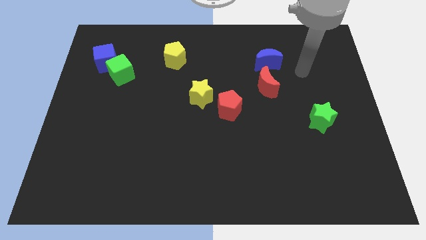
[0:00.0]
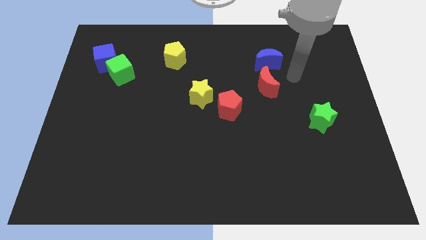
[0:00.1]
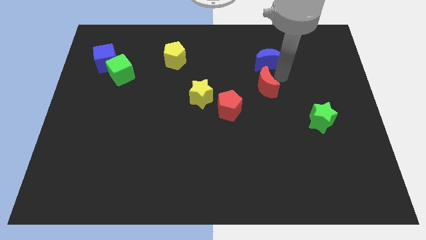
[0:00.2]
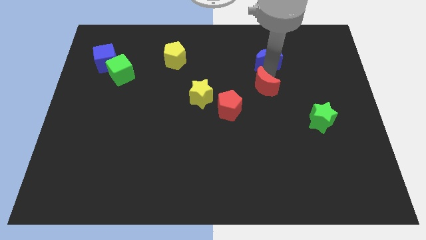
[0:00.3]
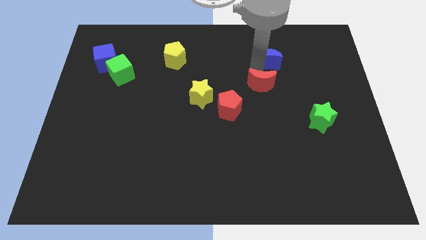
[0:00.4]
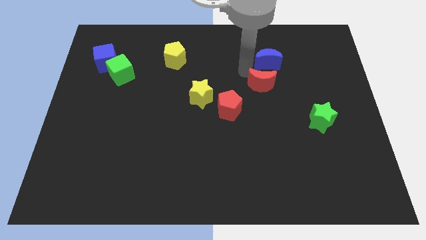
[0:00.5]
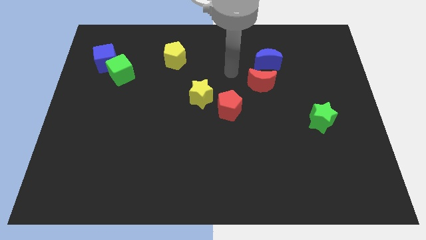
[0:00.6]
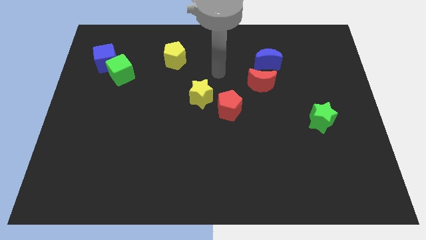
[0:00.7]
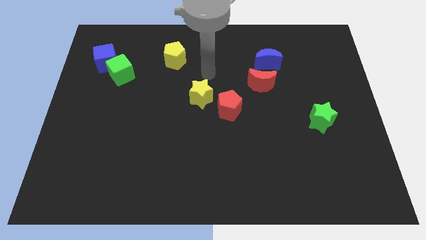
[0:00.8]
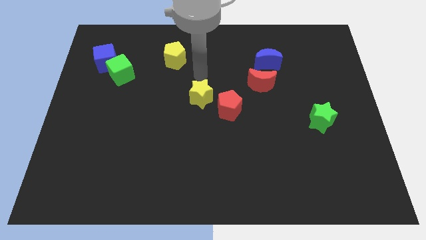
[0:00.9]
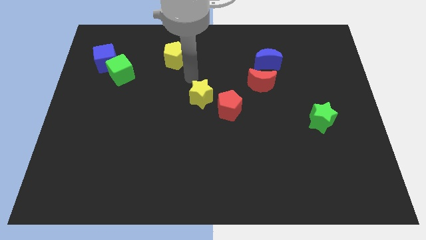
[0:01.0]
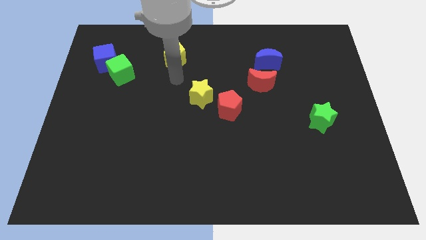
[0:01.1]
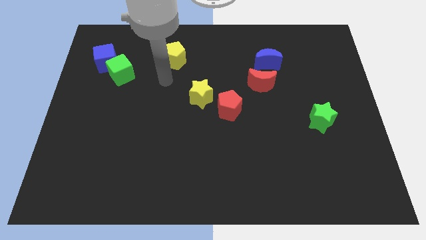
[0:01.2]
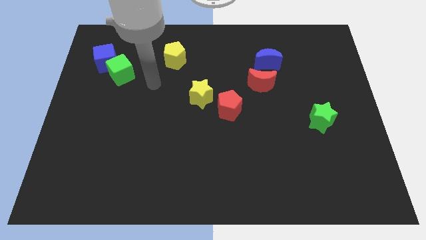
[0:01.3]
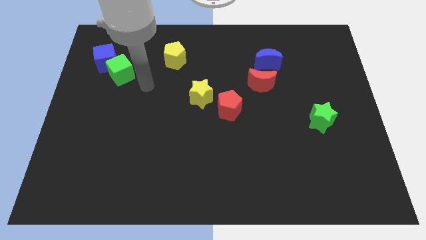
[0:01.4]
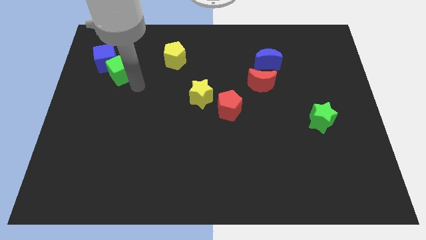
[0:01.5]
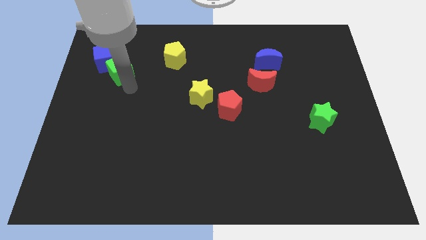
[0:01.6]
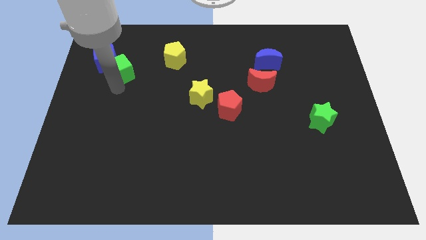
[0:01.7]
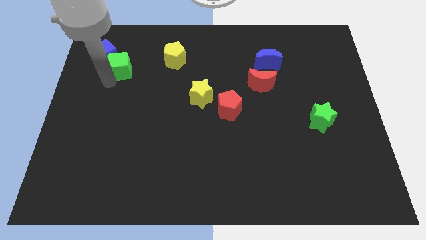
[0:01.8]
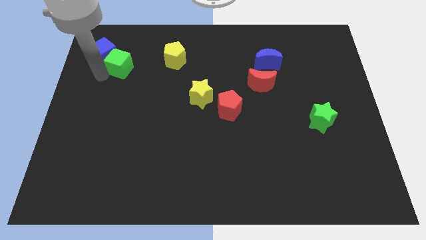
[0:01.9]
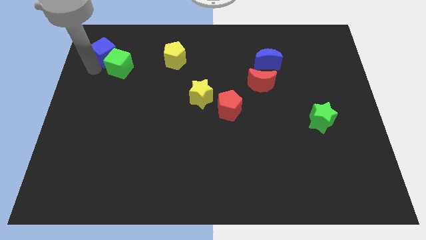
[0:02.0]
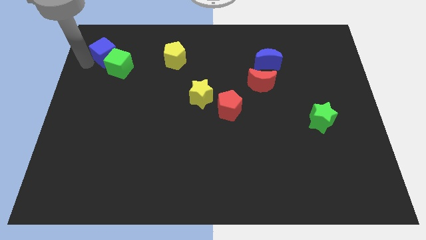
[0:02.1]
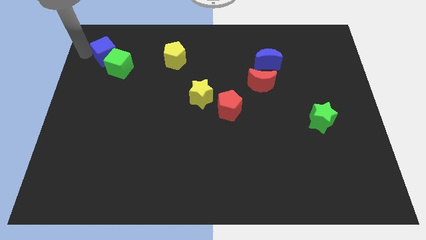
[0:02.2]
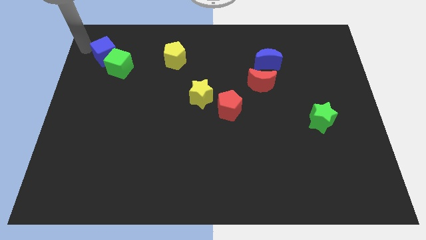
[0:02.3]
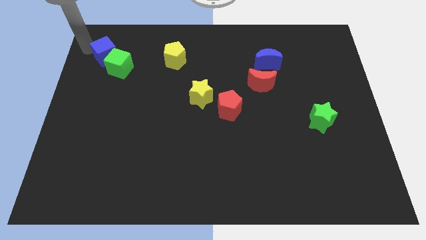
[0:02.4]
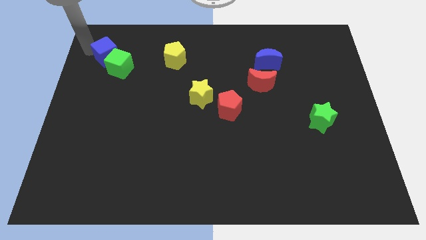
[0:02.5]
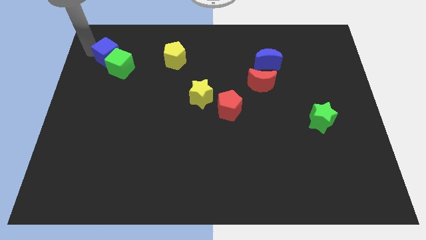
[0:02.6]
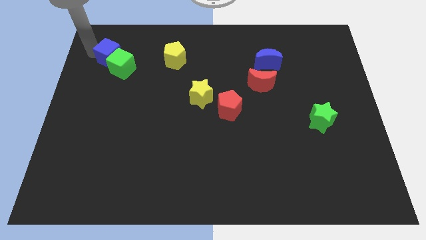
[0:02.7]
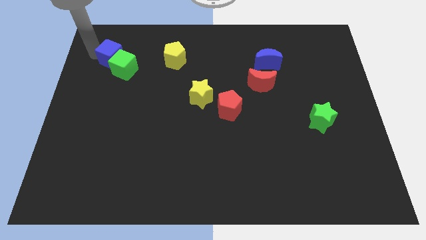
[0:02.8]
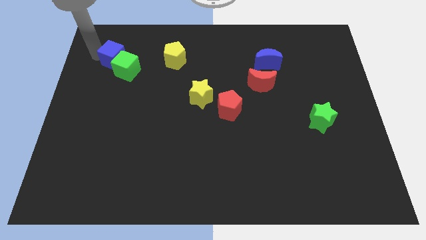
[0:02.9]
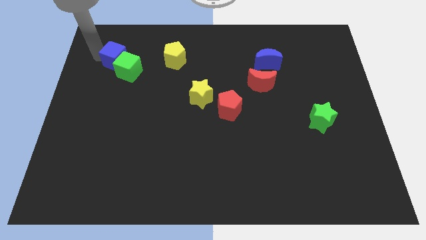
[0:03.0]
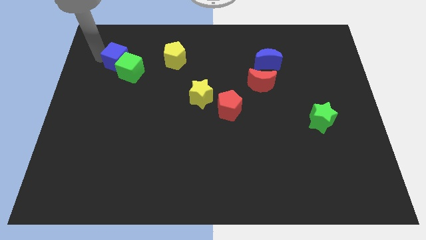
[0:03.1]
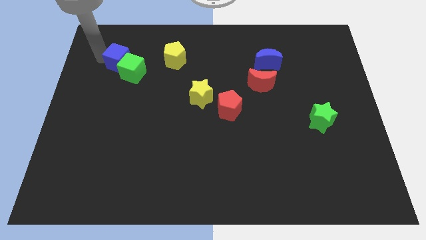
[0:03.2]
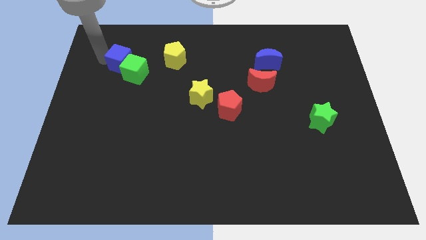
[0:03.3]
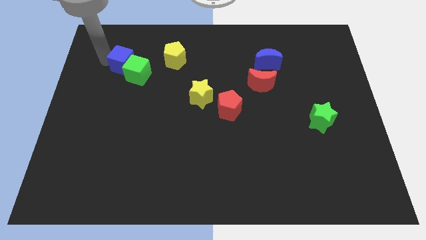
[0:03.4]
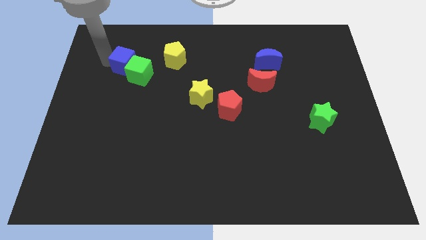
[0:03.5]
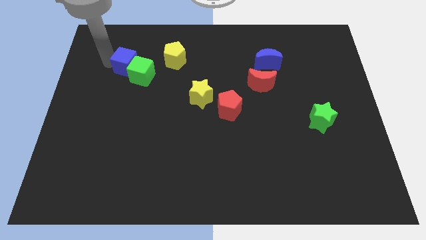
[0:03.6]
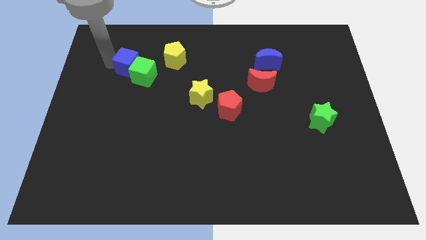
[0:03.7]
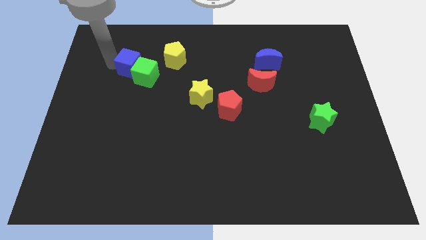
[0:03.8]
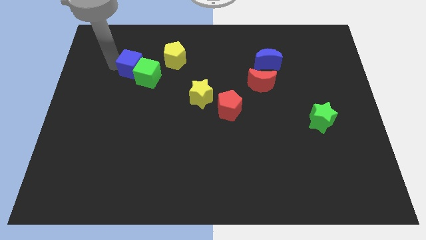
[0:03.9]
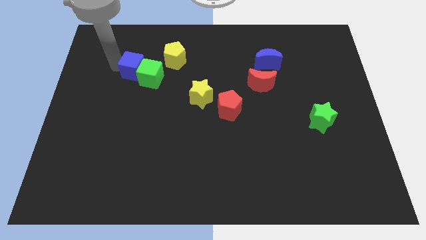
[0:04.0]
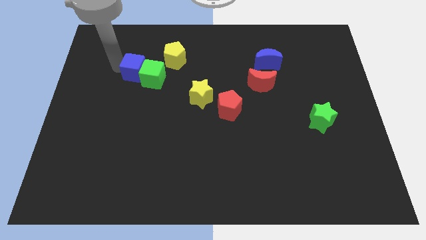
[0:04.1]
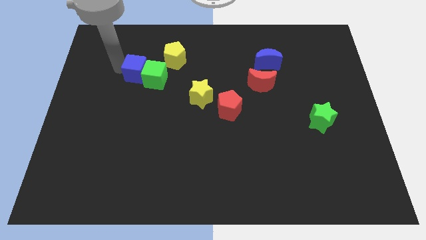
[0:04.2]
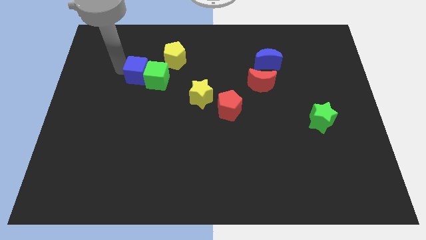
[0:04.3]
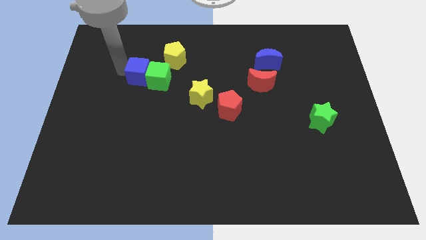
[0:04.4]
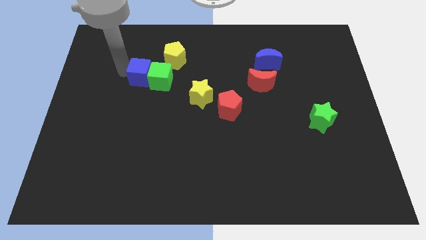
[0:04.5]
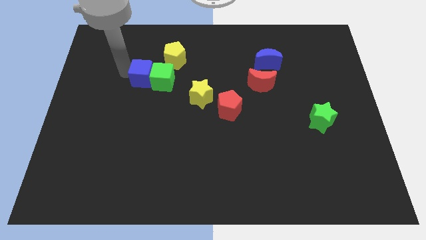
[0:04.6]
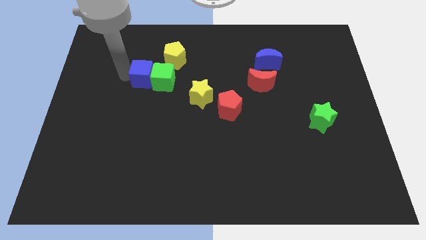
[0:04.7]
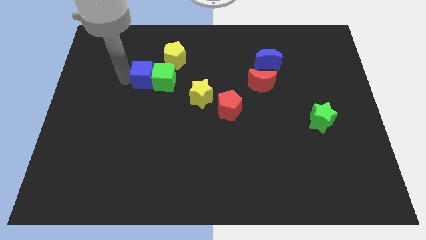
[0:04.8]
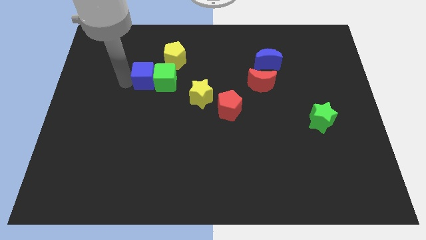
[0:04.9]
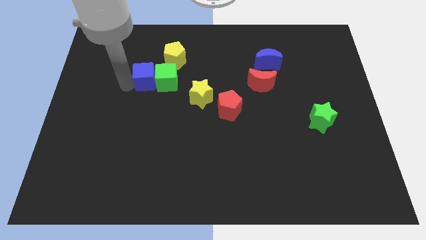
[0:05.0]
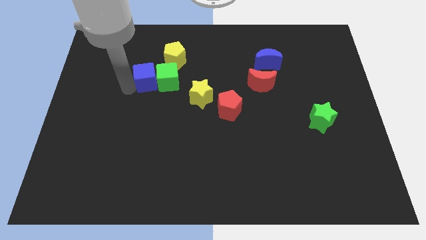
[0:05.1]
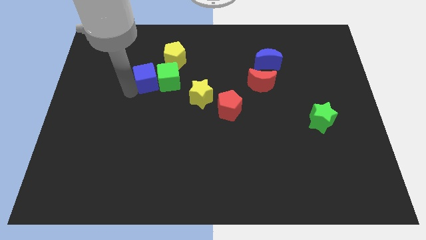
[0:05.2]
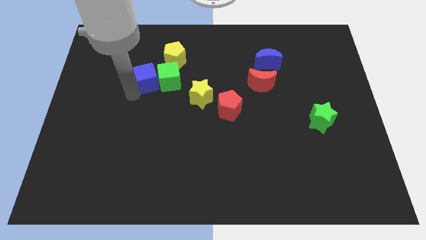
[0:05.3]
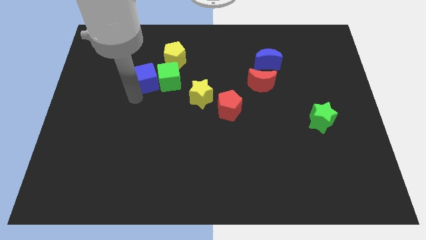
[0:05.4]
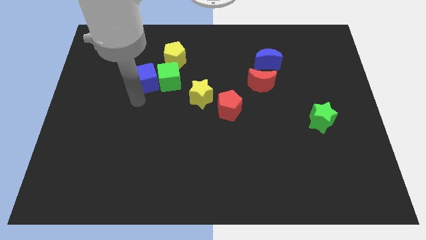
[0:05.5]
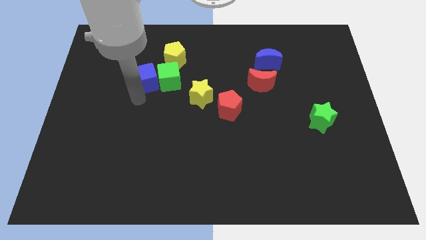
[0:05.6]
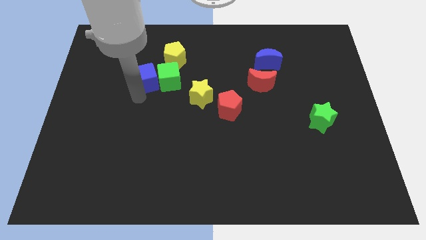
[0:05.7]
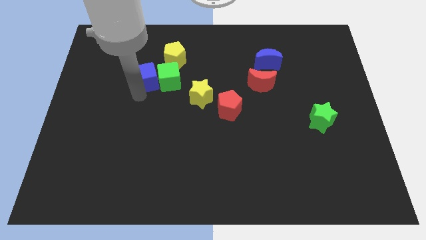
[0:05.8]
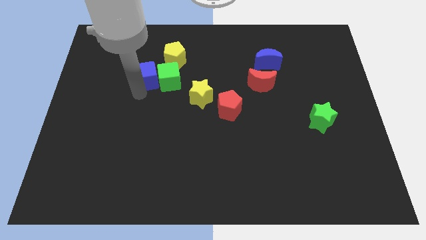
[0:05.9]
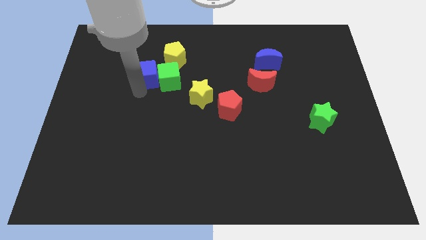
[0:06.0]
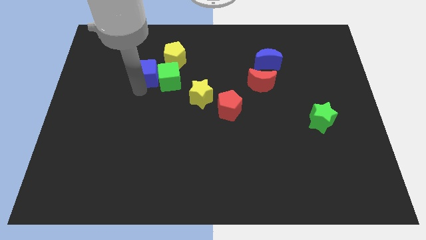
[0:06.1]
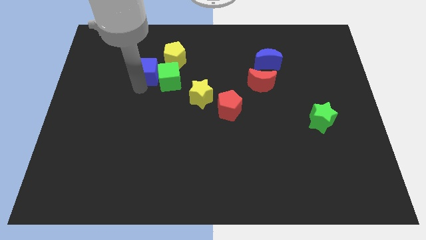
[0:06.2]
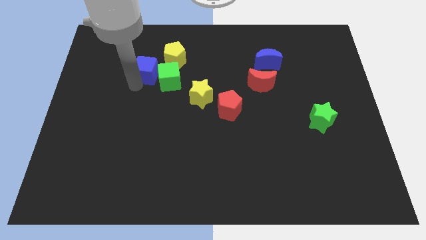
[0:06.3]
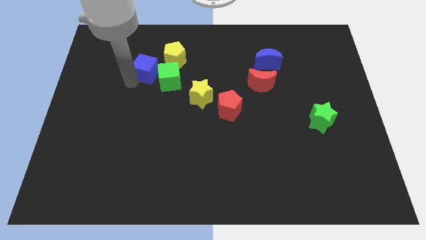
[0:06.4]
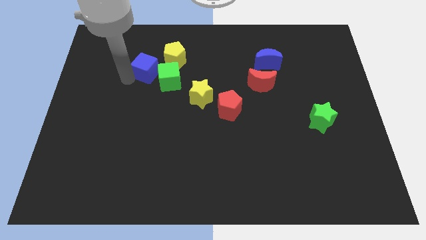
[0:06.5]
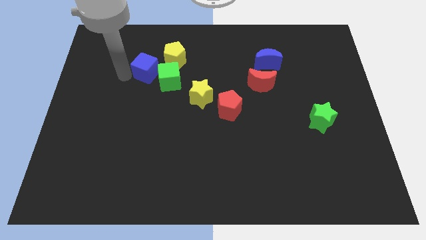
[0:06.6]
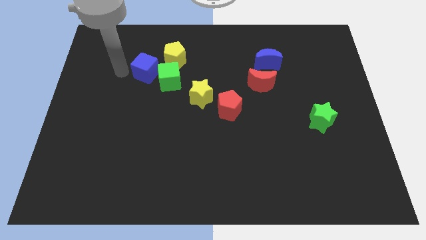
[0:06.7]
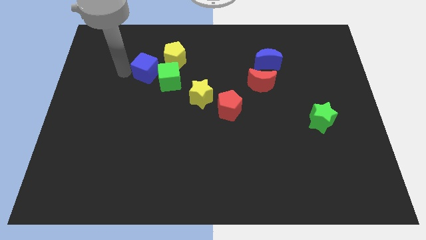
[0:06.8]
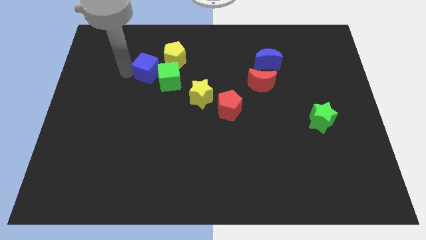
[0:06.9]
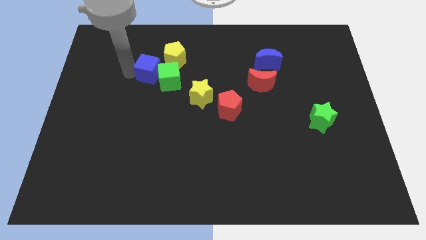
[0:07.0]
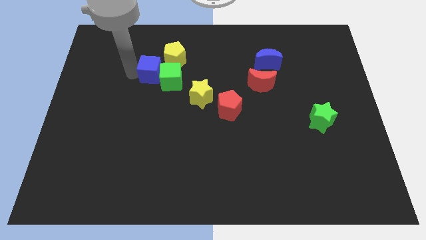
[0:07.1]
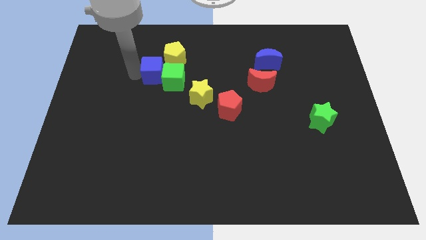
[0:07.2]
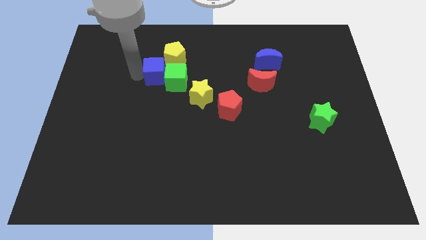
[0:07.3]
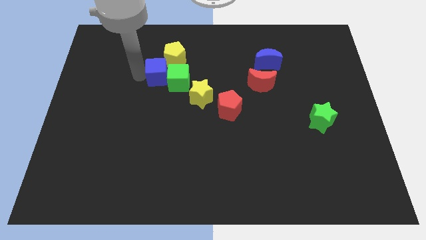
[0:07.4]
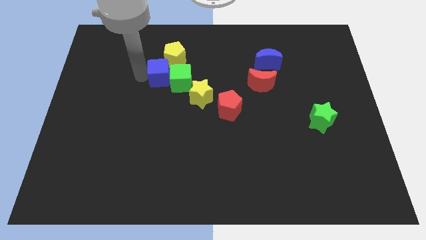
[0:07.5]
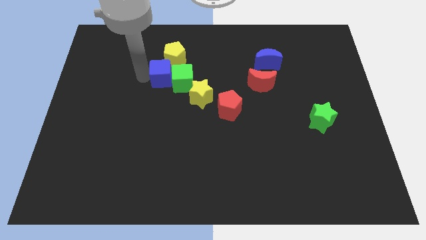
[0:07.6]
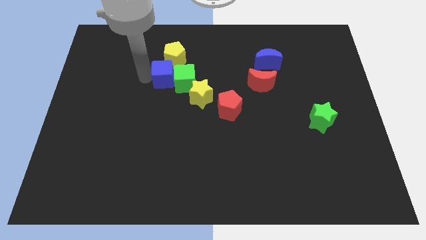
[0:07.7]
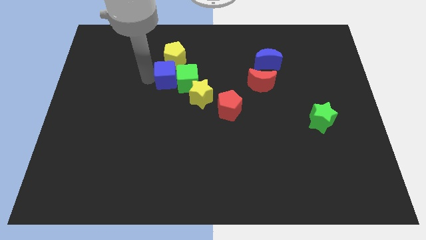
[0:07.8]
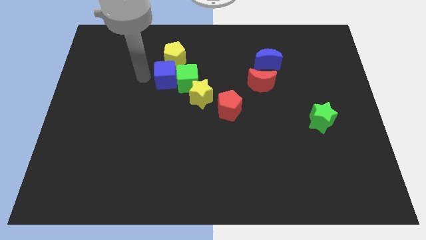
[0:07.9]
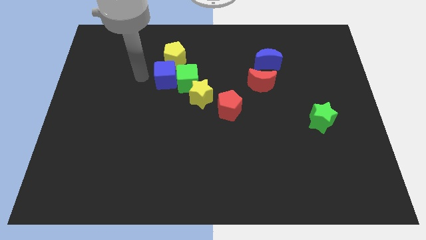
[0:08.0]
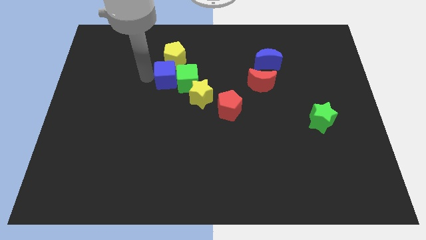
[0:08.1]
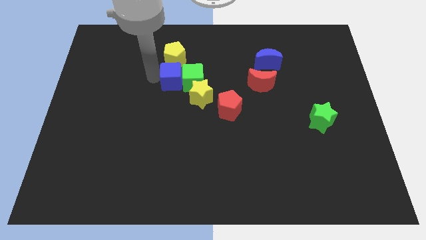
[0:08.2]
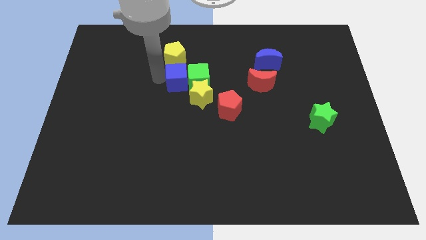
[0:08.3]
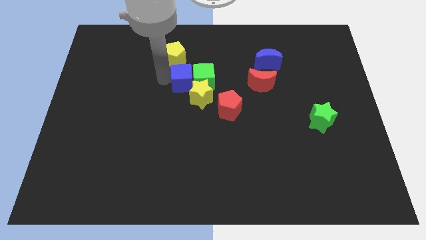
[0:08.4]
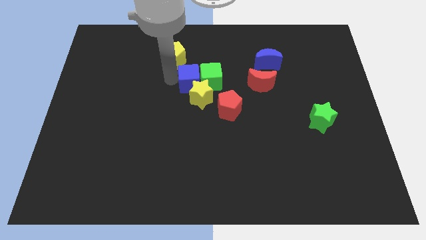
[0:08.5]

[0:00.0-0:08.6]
put the blue cube diagonally up and to the left of the red pentagon
